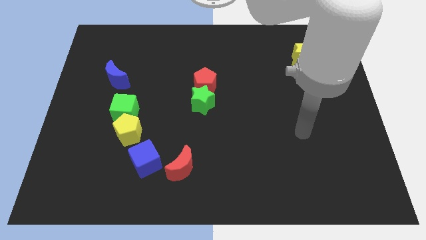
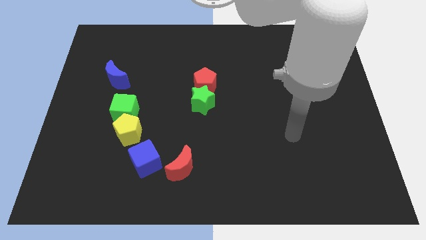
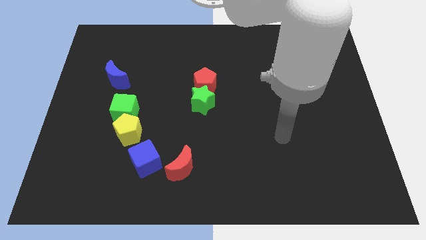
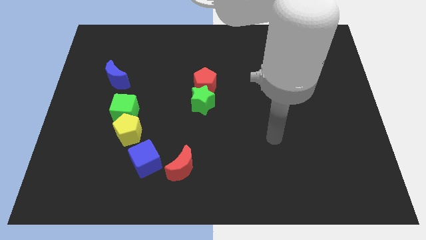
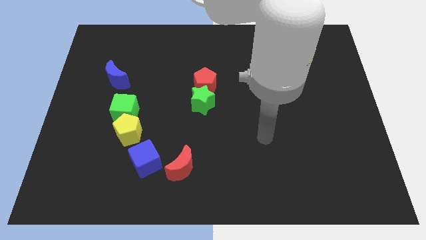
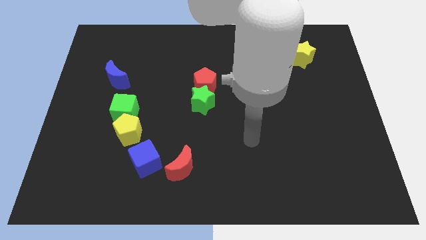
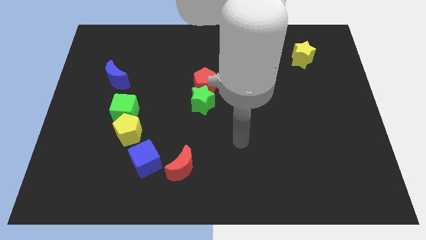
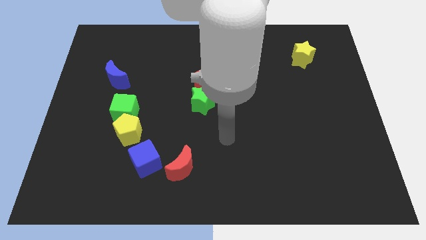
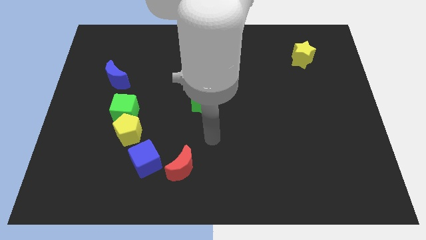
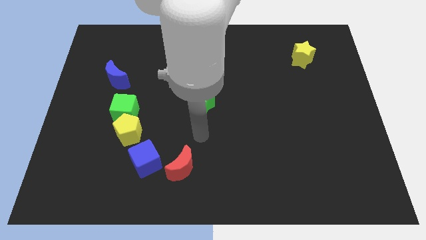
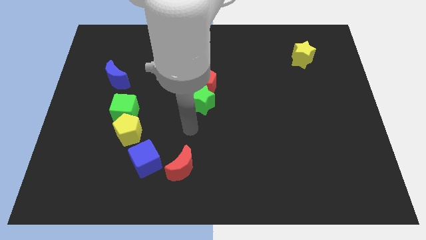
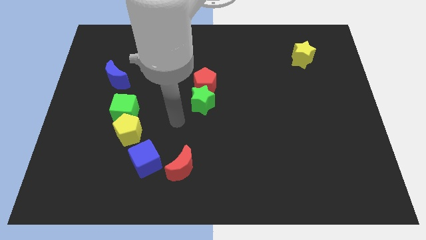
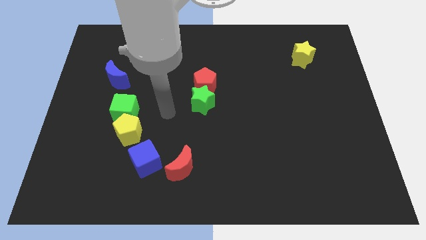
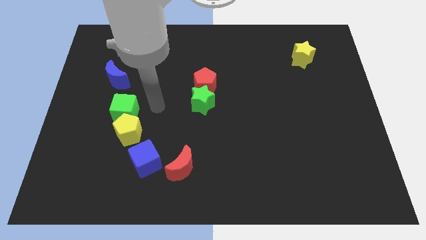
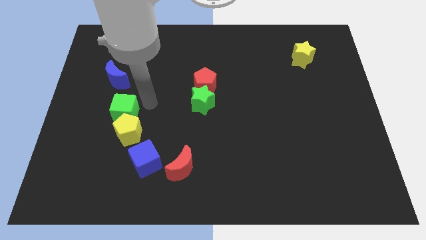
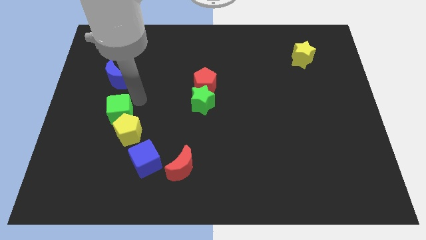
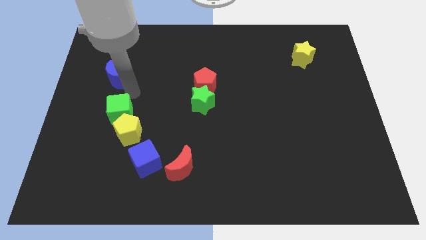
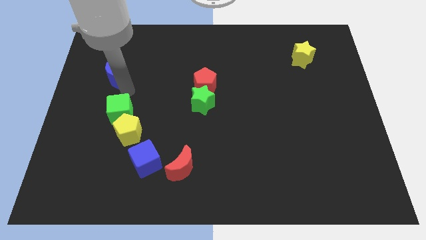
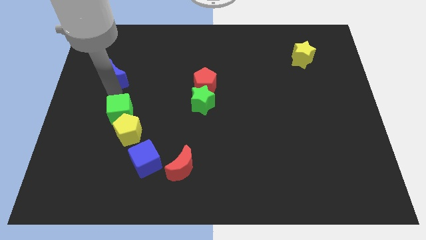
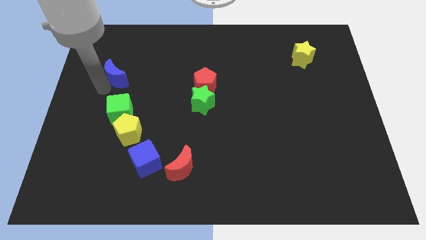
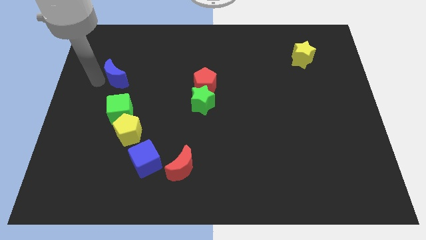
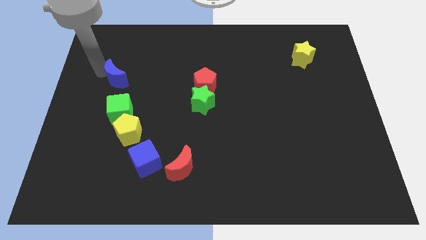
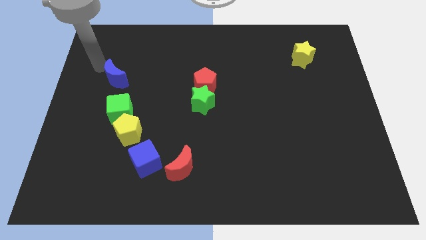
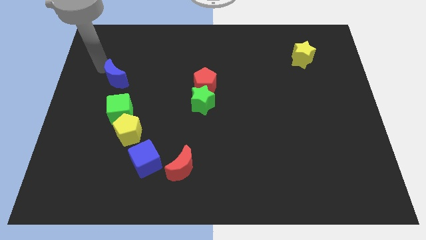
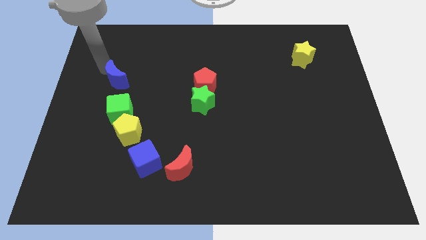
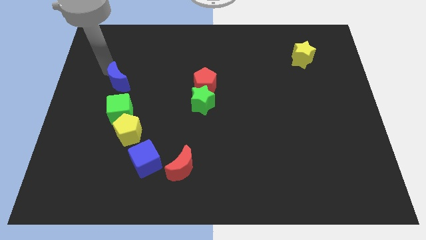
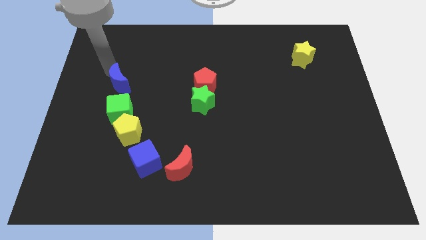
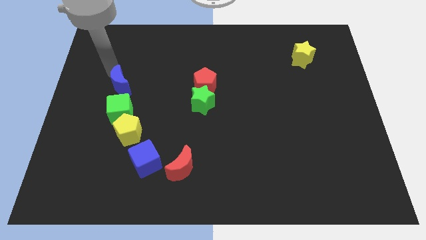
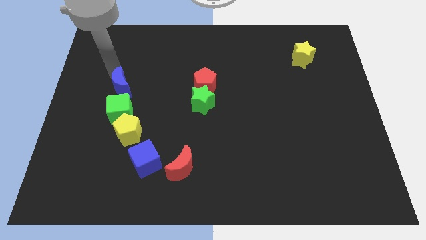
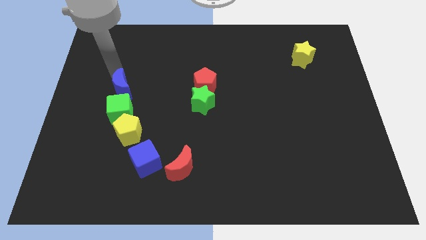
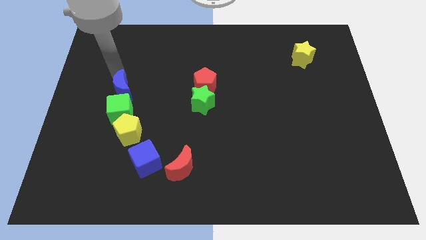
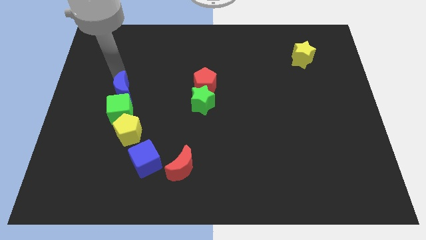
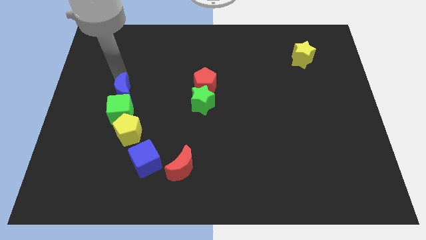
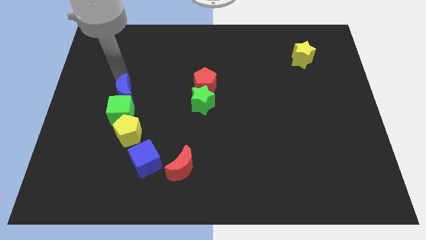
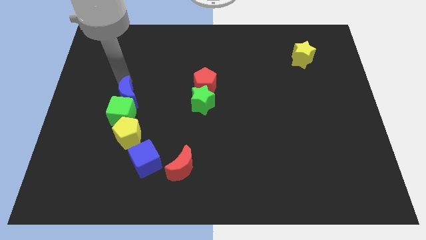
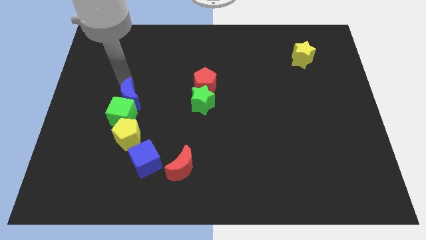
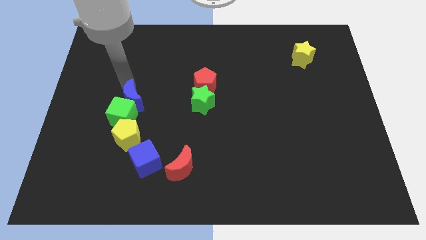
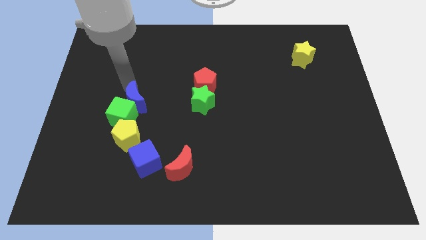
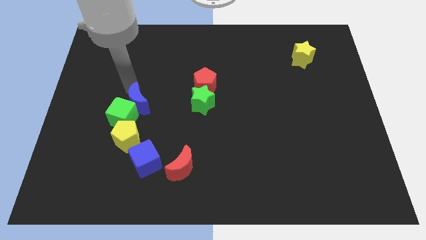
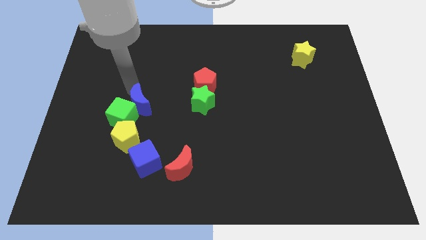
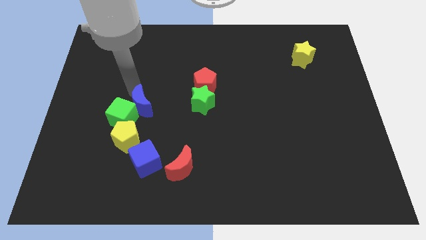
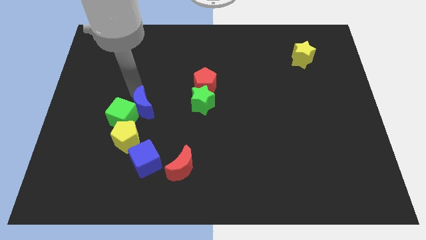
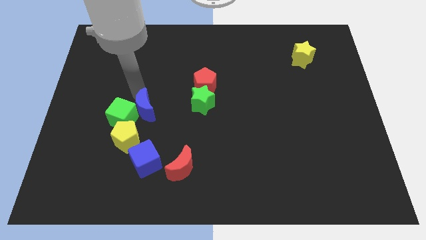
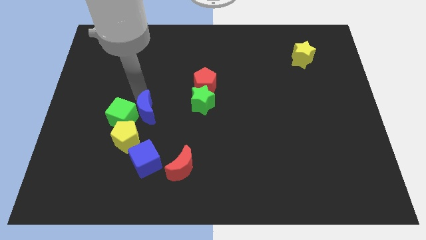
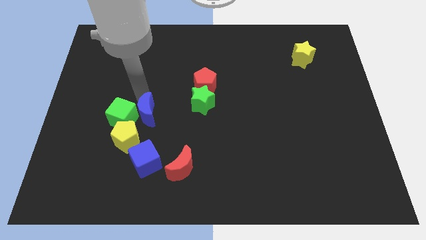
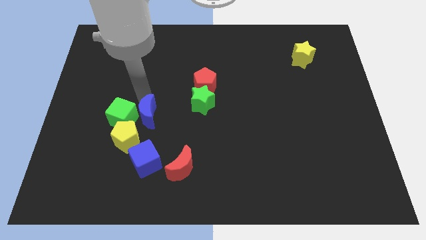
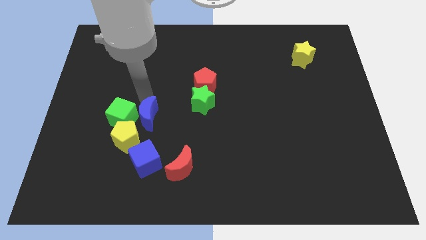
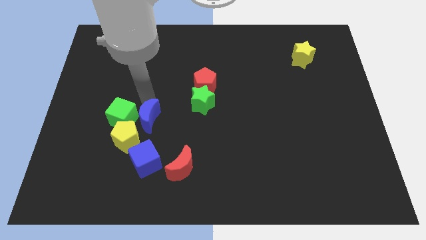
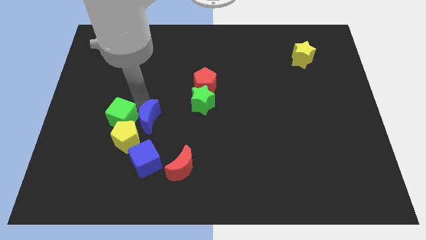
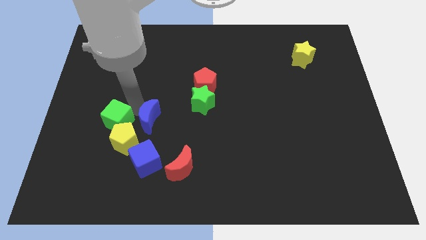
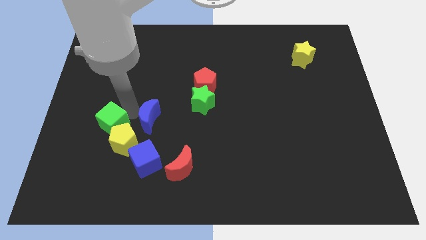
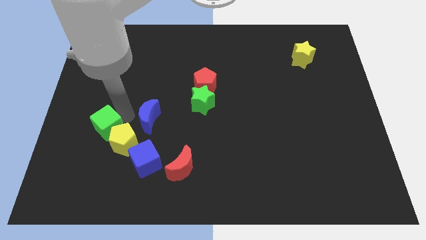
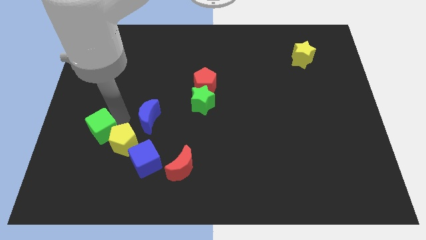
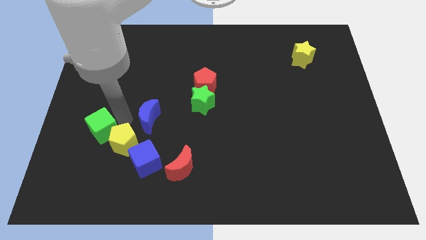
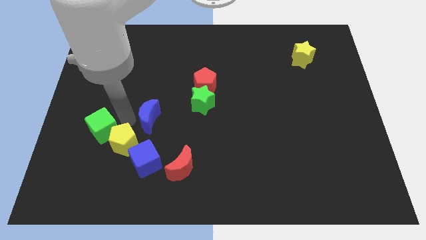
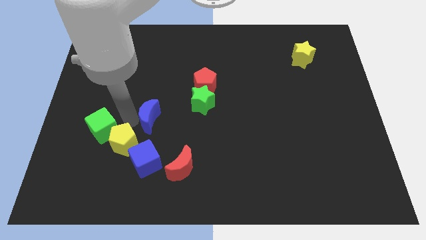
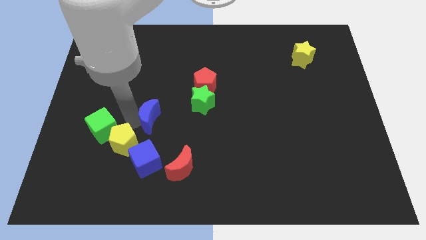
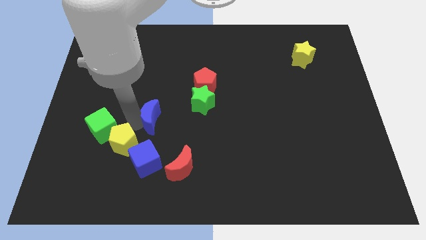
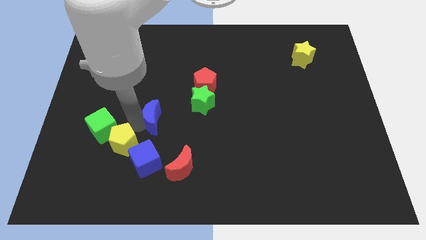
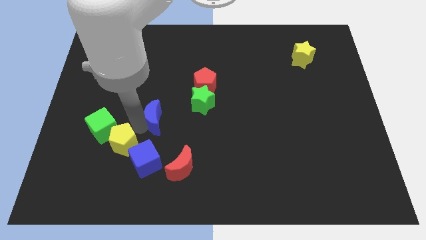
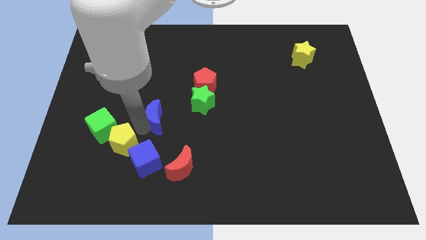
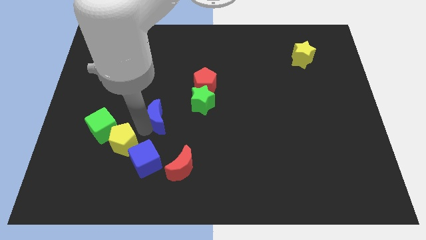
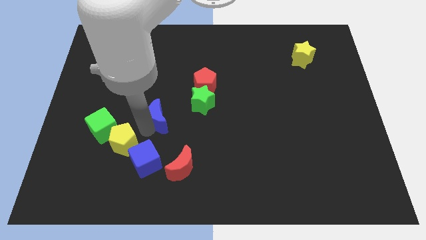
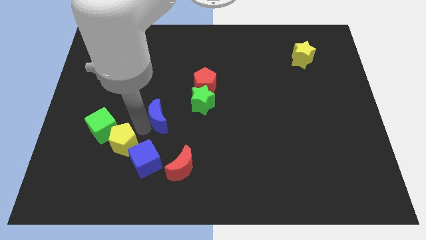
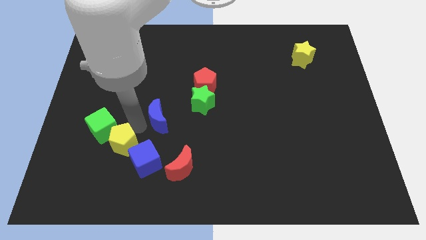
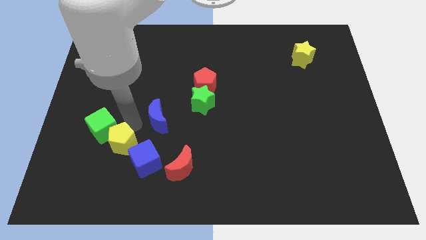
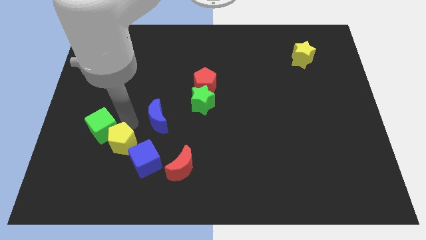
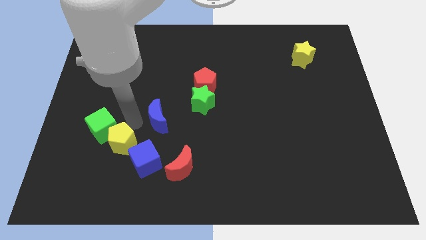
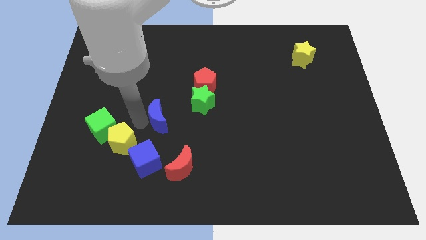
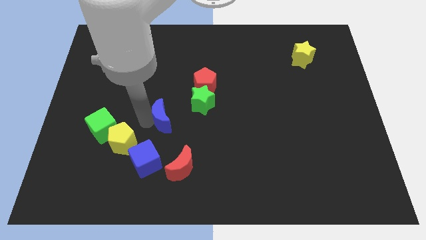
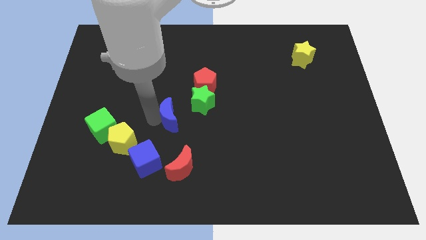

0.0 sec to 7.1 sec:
put the blue moon above the red moon
